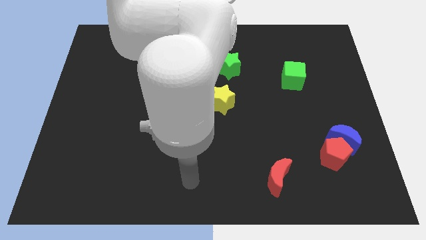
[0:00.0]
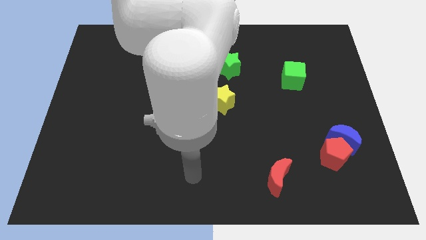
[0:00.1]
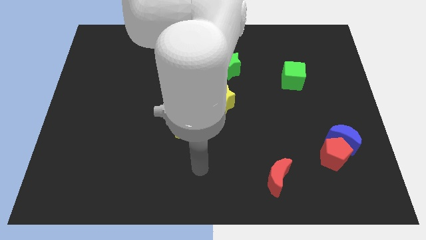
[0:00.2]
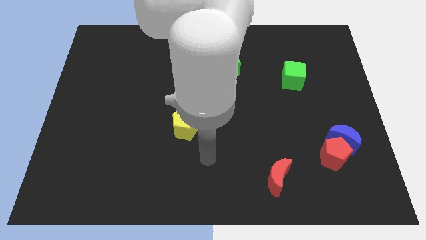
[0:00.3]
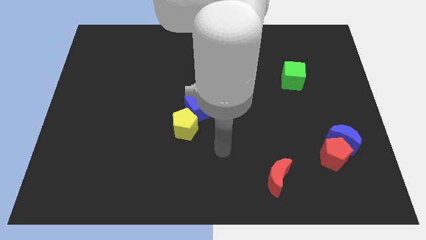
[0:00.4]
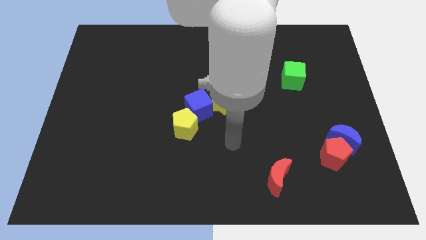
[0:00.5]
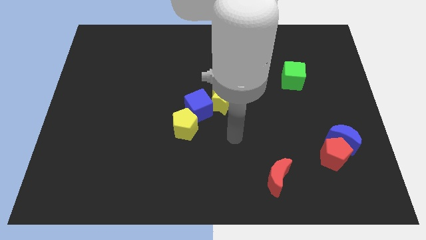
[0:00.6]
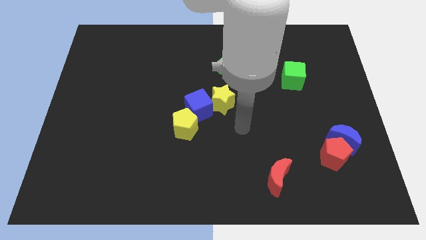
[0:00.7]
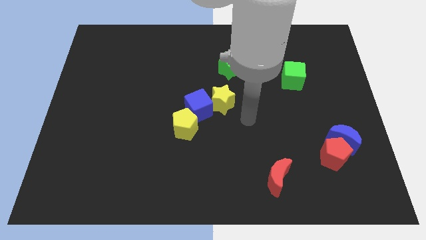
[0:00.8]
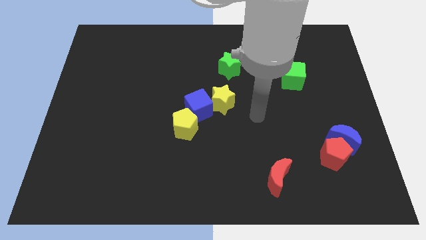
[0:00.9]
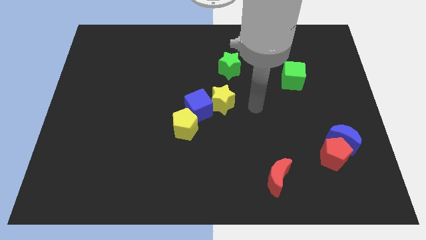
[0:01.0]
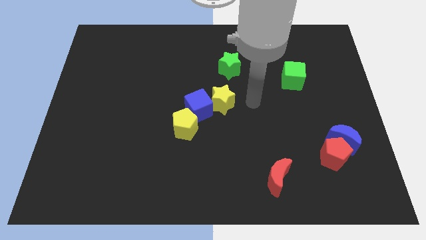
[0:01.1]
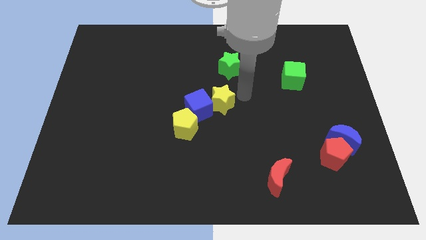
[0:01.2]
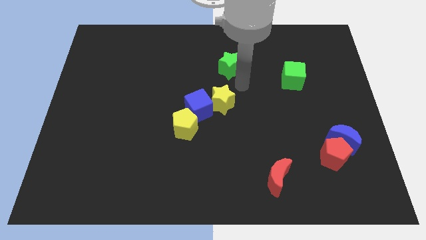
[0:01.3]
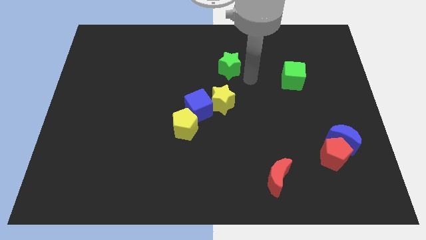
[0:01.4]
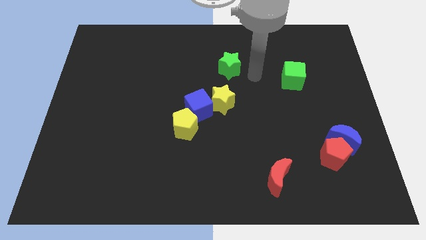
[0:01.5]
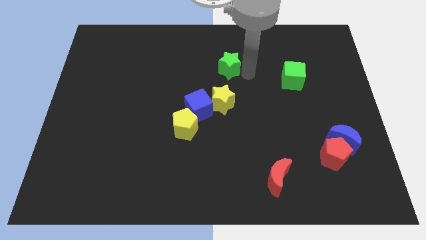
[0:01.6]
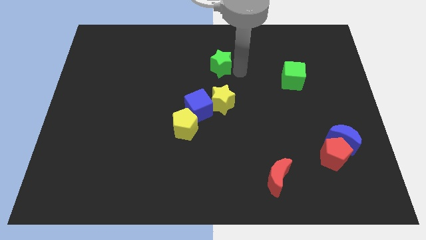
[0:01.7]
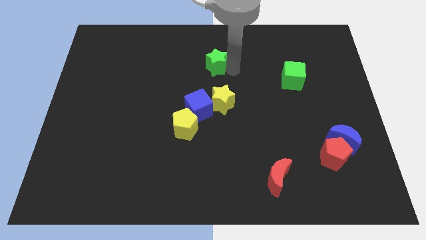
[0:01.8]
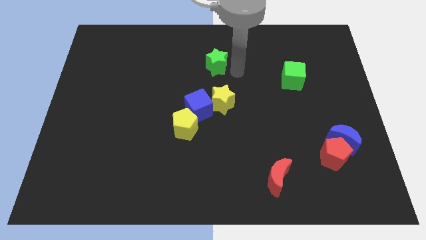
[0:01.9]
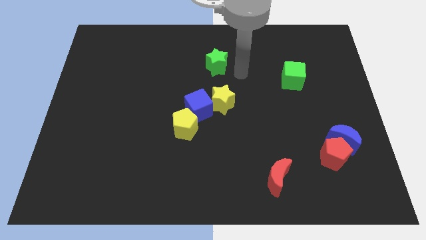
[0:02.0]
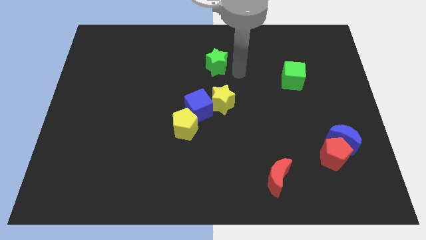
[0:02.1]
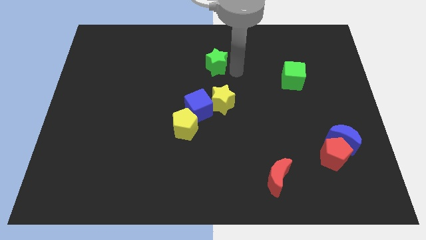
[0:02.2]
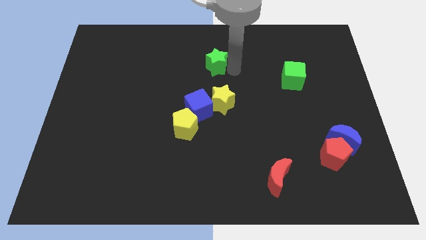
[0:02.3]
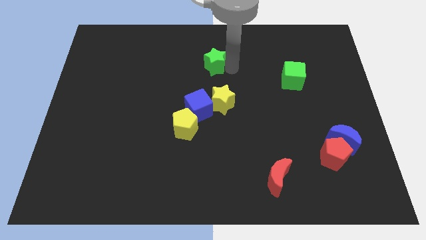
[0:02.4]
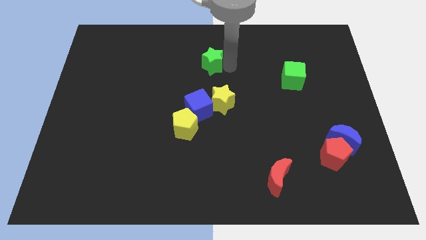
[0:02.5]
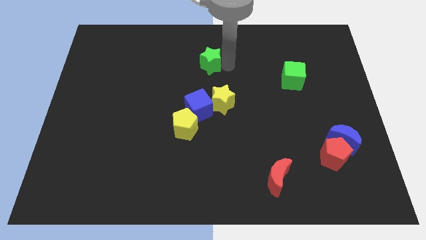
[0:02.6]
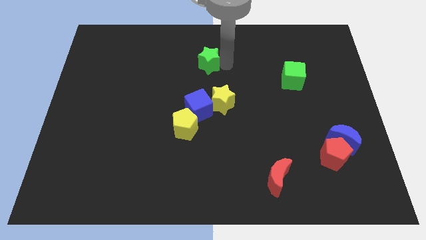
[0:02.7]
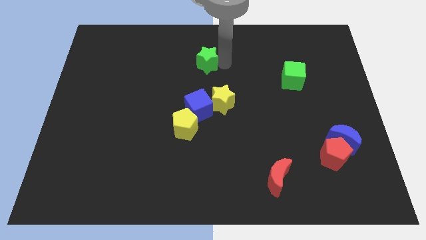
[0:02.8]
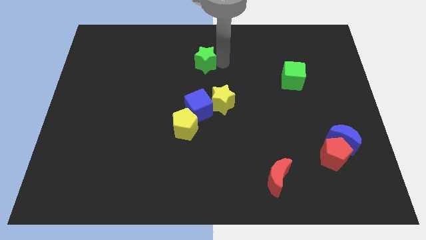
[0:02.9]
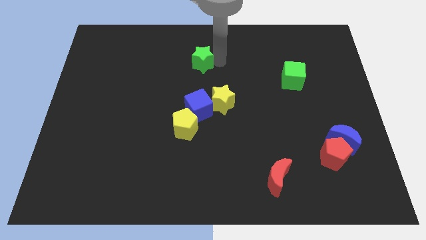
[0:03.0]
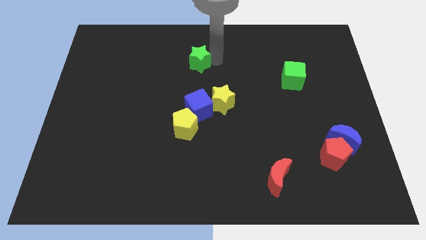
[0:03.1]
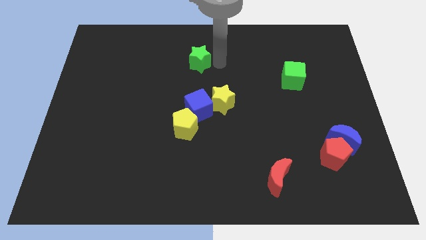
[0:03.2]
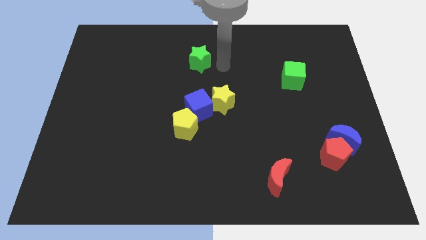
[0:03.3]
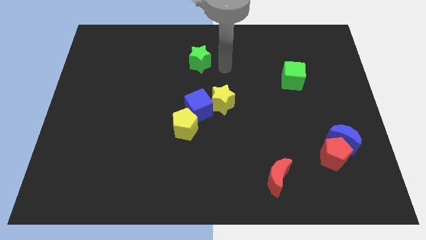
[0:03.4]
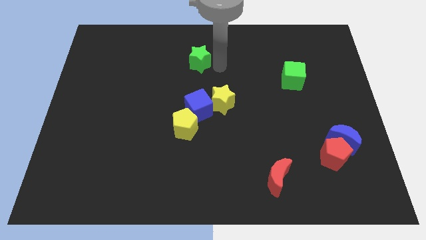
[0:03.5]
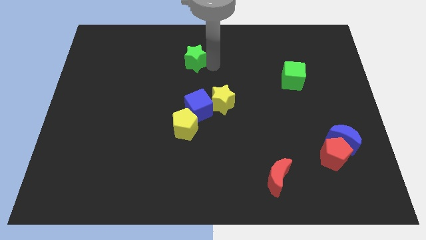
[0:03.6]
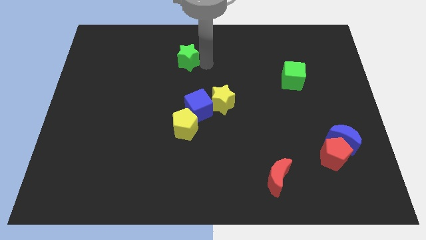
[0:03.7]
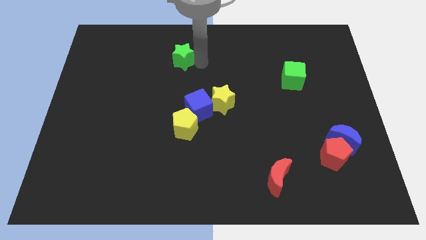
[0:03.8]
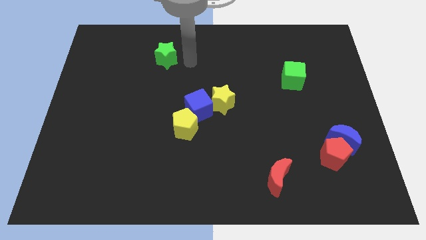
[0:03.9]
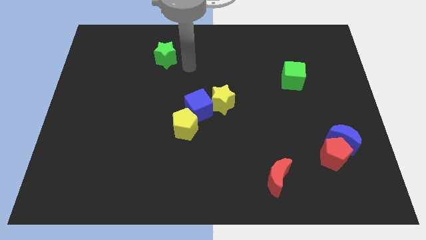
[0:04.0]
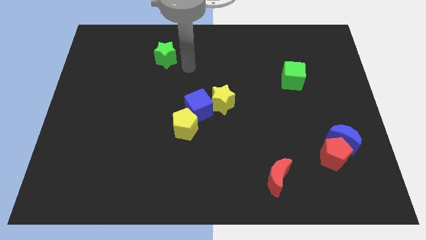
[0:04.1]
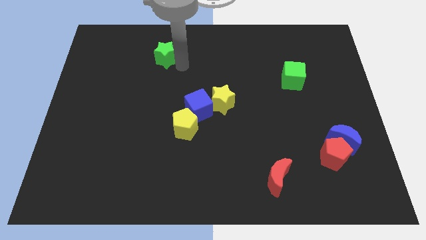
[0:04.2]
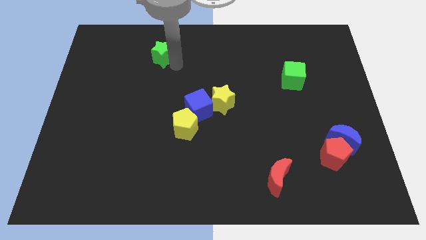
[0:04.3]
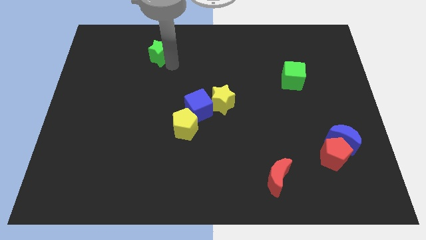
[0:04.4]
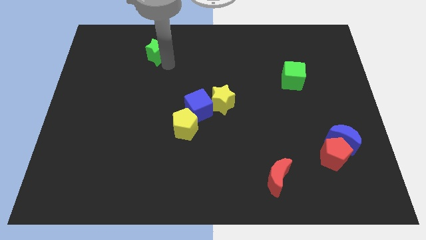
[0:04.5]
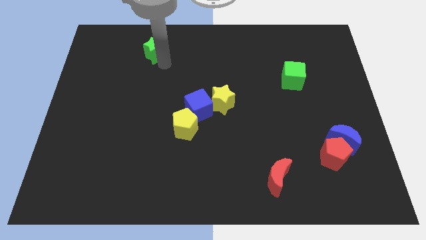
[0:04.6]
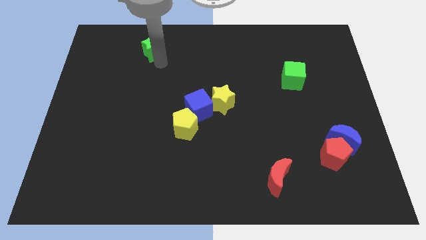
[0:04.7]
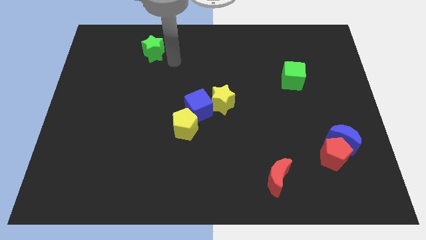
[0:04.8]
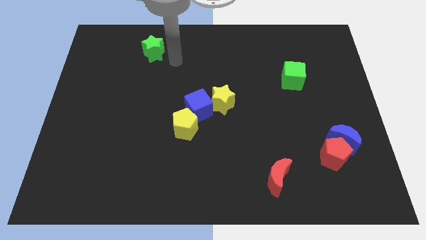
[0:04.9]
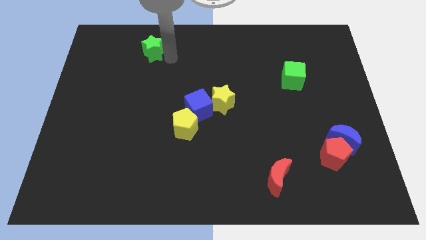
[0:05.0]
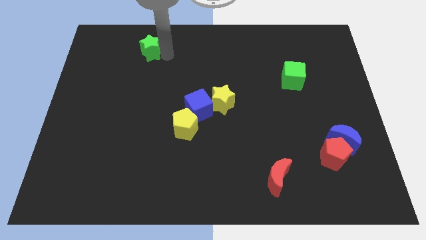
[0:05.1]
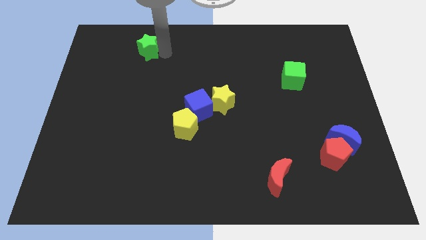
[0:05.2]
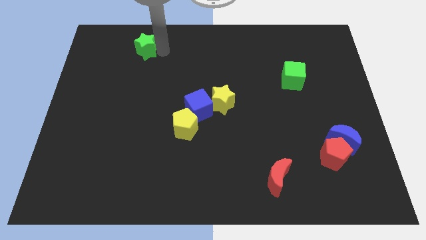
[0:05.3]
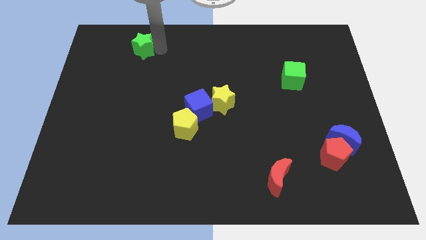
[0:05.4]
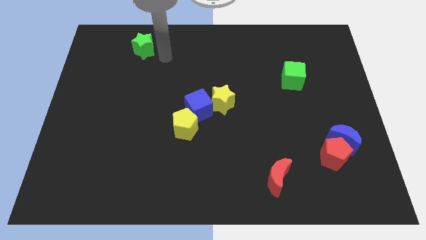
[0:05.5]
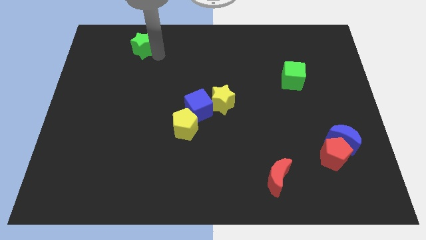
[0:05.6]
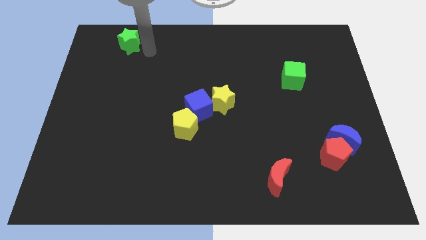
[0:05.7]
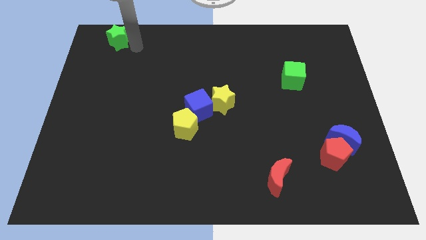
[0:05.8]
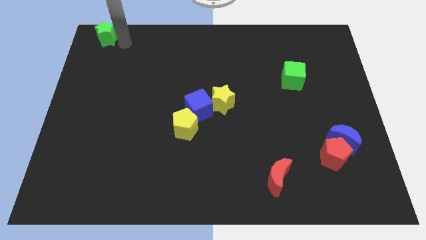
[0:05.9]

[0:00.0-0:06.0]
push the green star to the top left of the board
